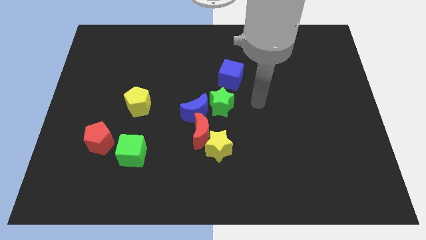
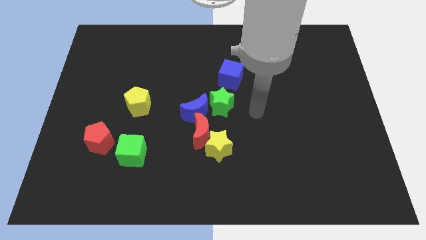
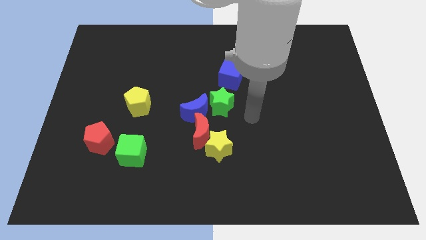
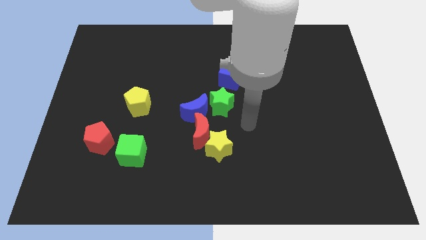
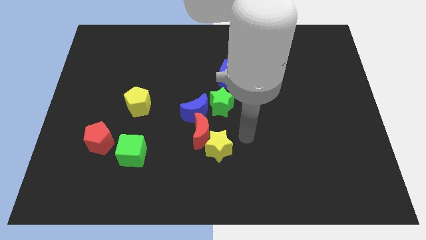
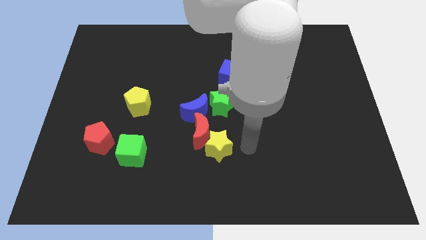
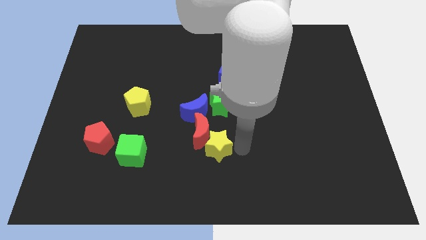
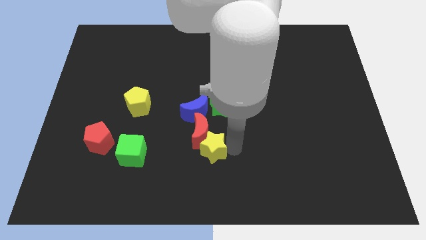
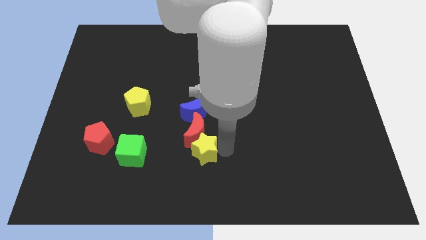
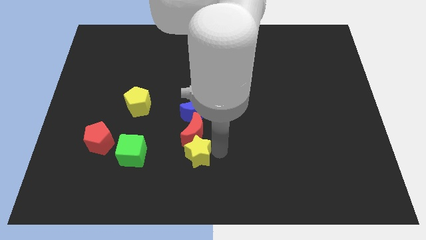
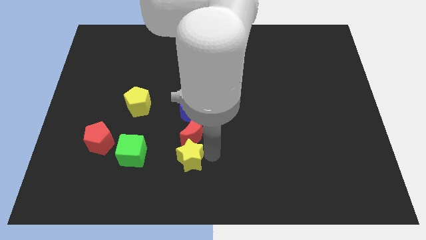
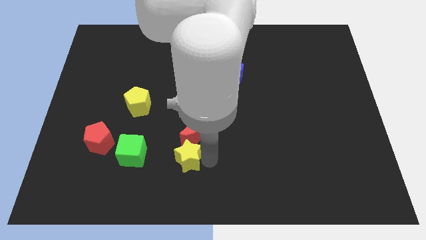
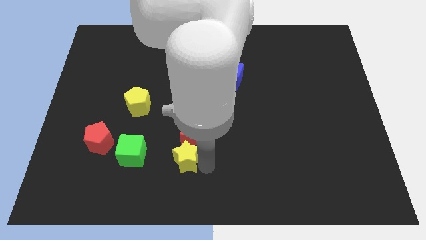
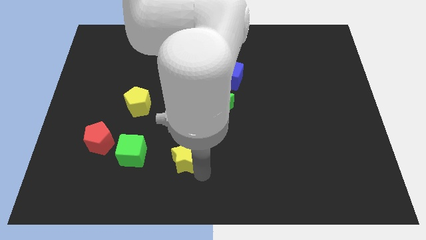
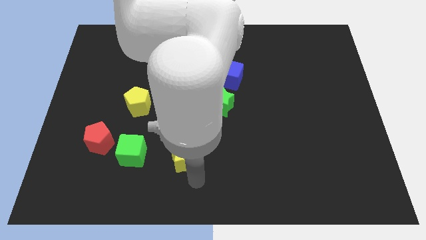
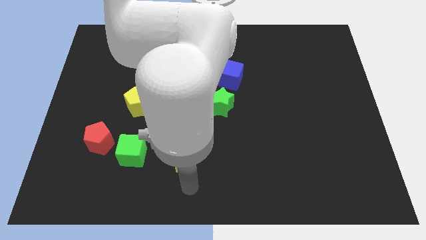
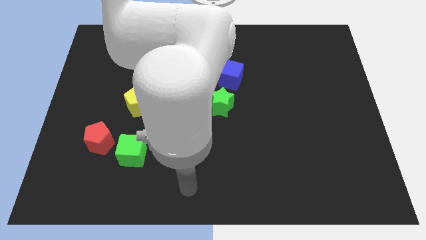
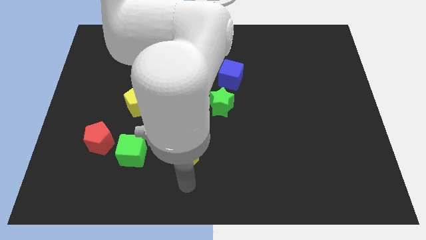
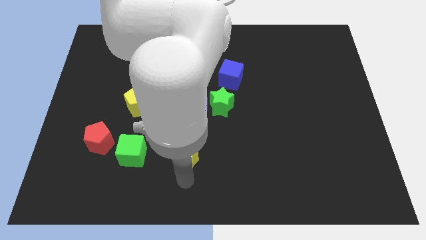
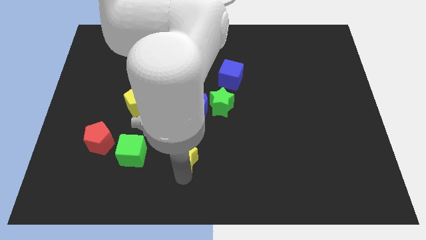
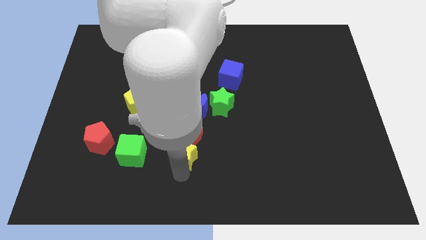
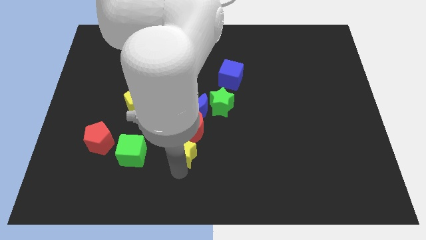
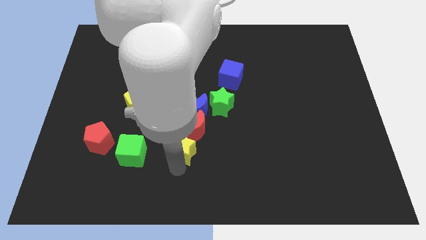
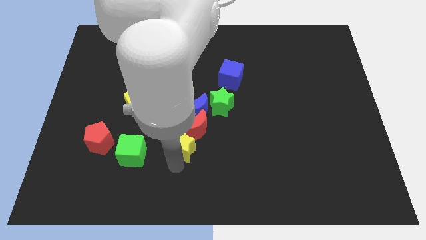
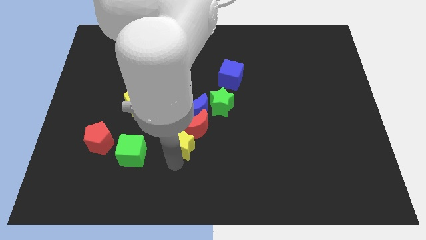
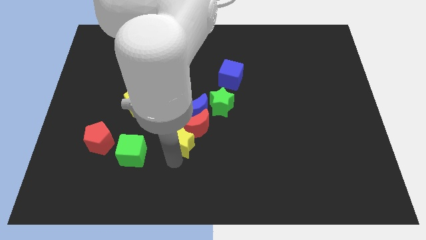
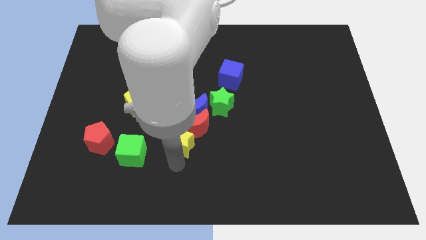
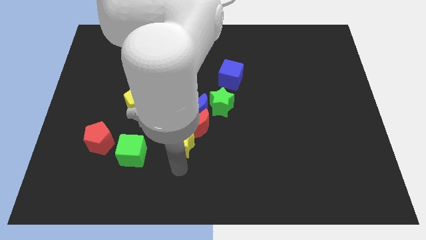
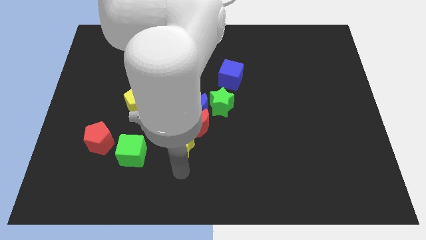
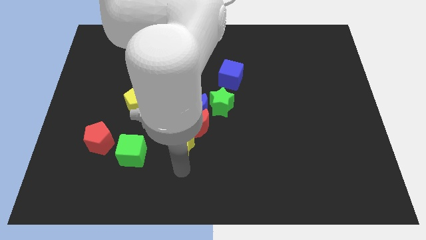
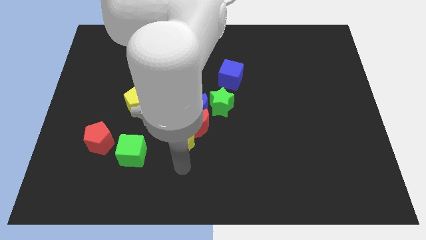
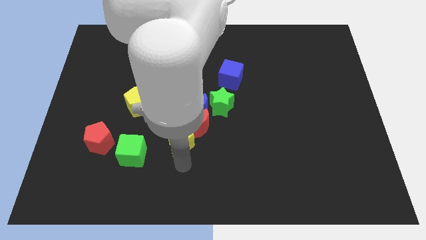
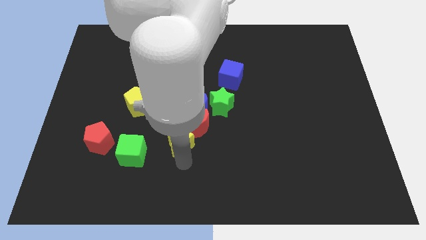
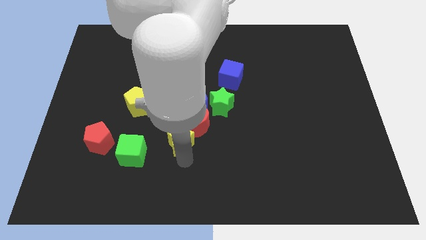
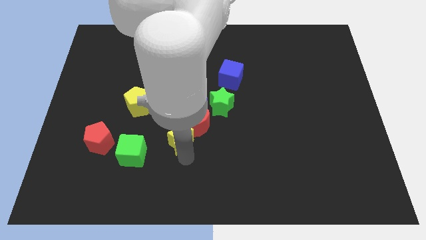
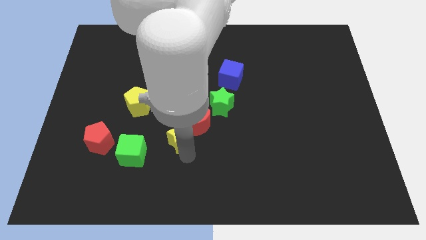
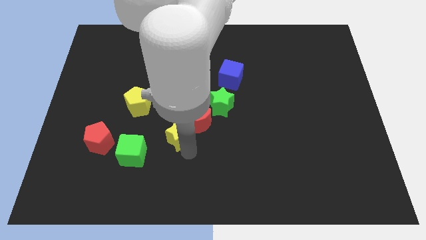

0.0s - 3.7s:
move the yellow star somewhat diagonally up and left

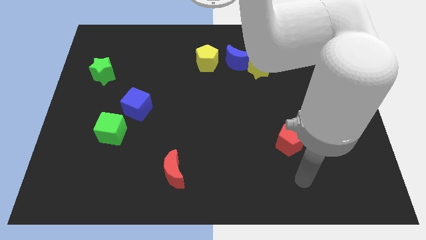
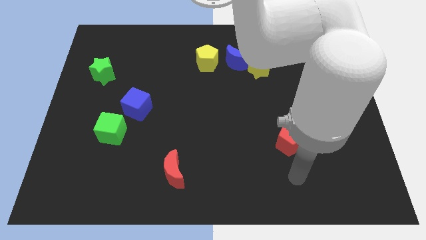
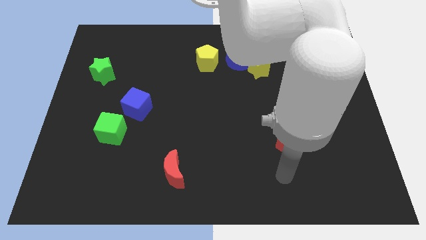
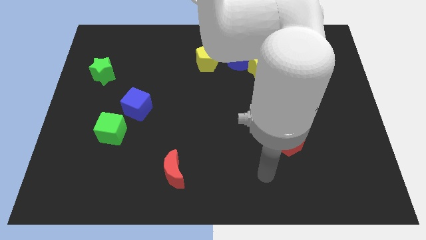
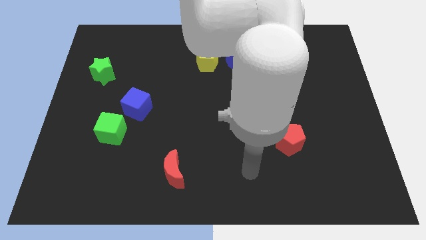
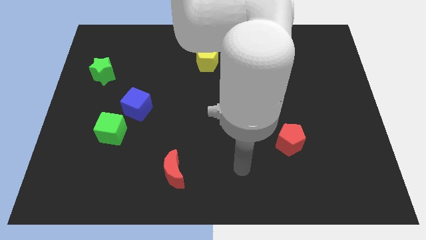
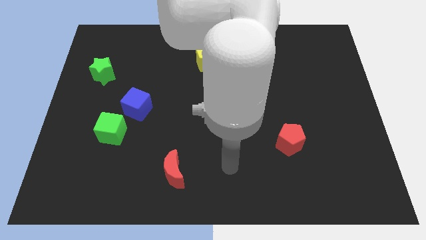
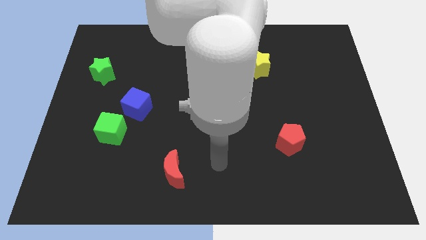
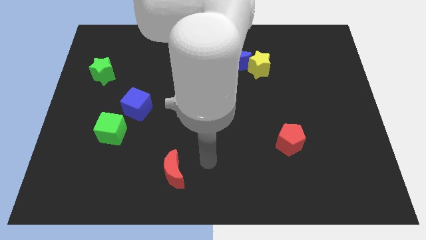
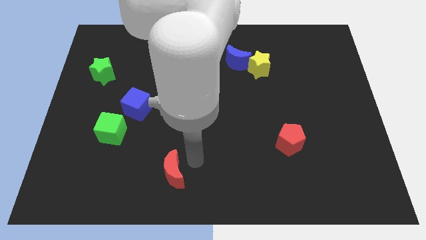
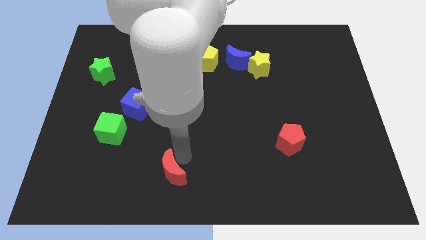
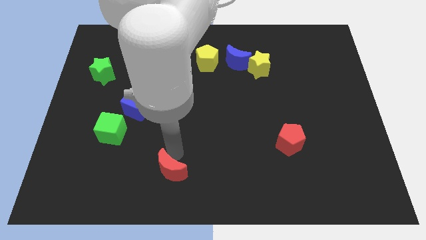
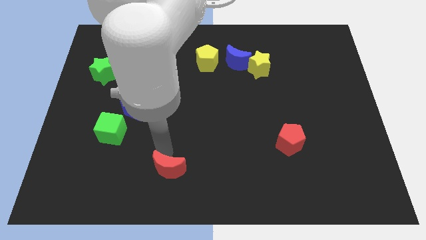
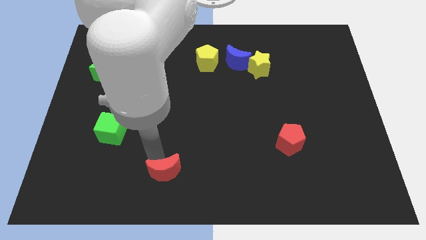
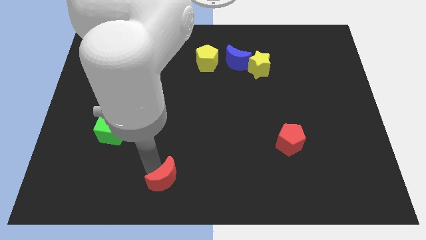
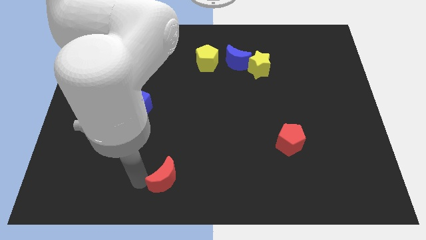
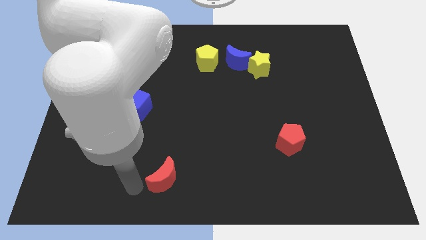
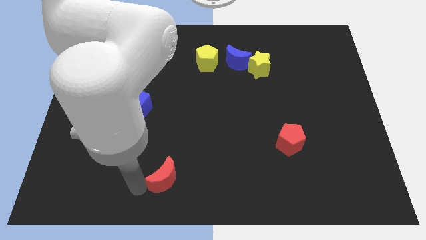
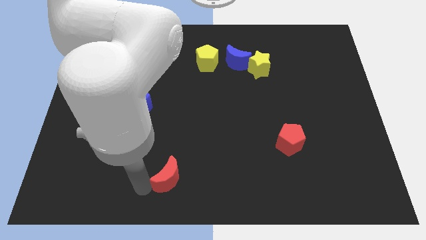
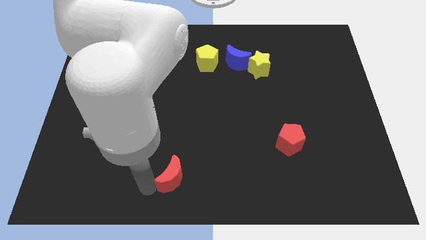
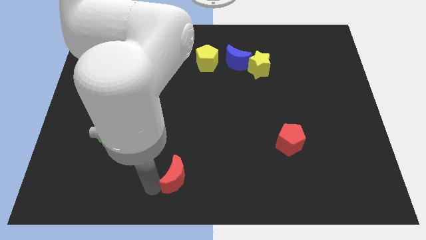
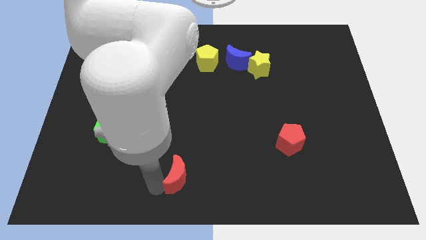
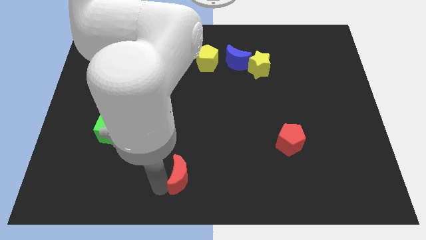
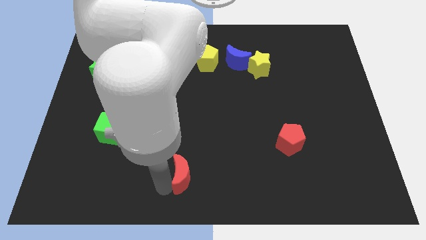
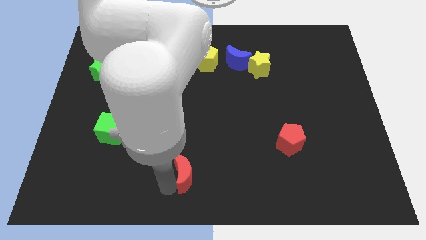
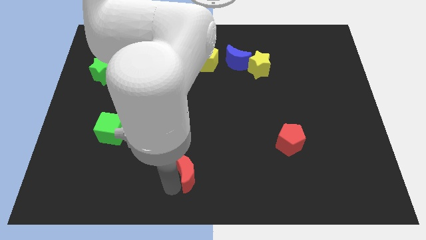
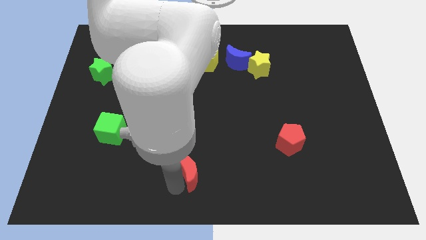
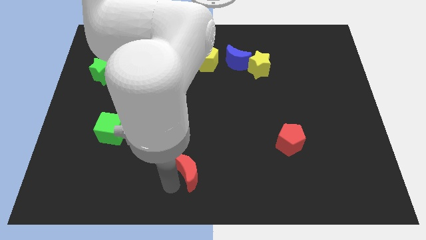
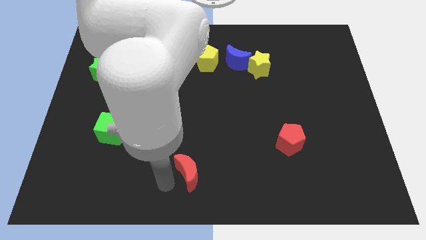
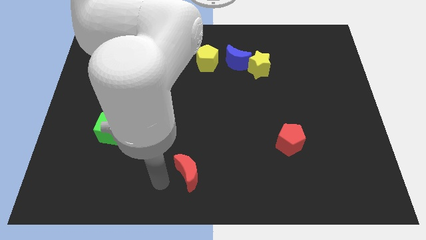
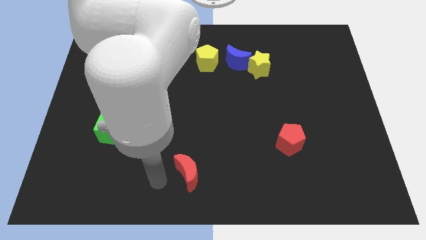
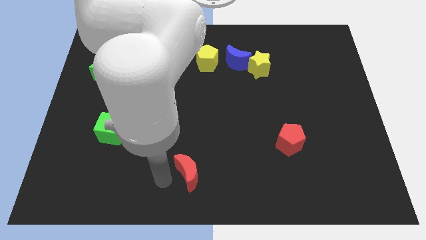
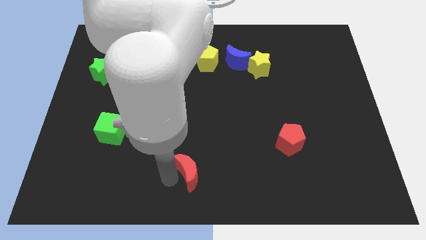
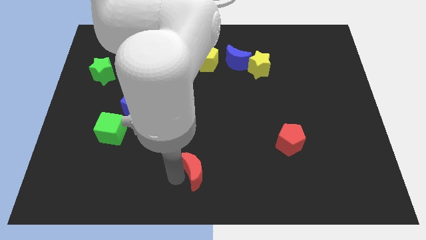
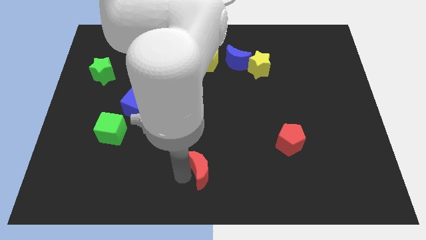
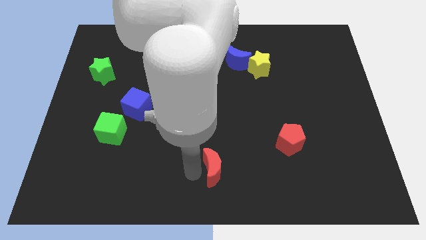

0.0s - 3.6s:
slide the red moon a little right
